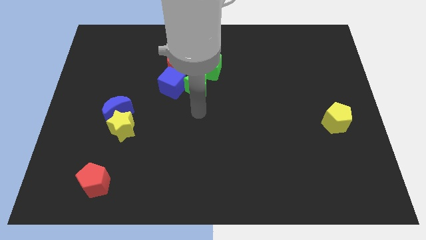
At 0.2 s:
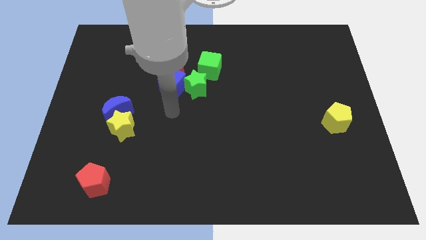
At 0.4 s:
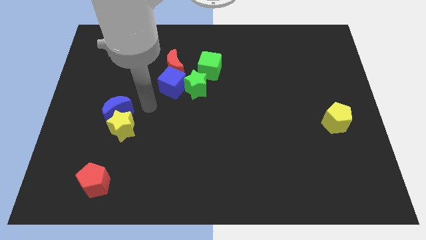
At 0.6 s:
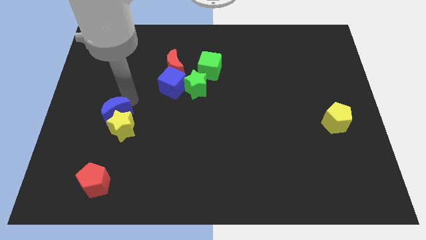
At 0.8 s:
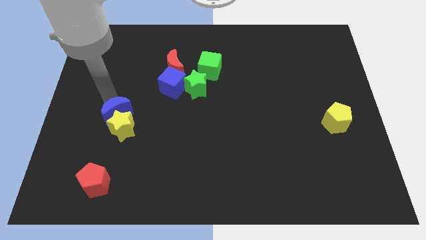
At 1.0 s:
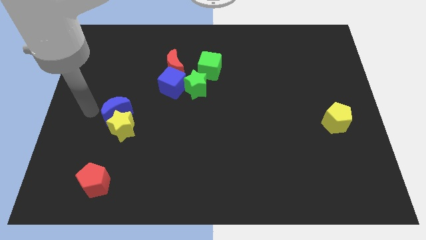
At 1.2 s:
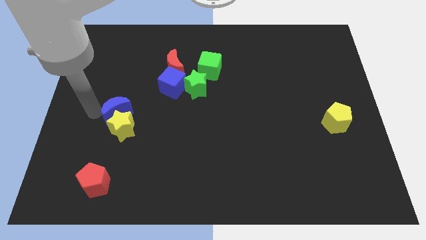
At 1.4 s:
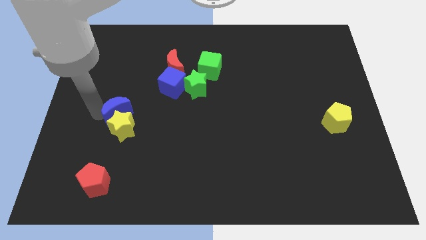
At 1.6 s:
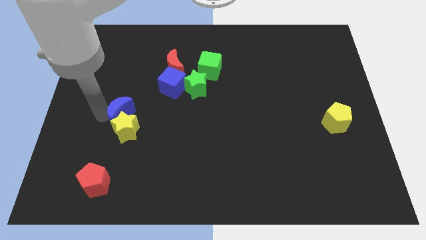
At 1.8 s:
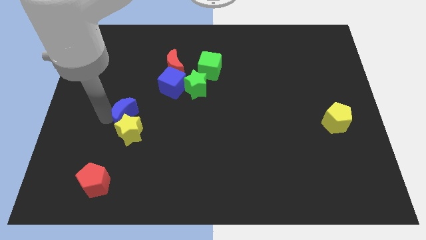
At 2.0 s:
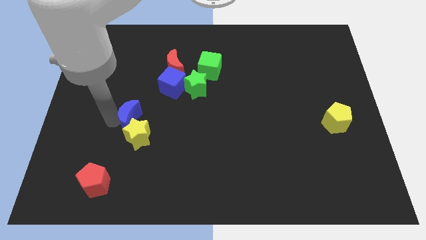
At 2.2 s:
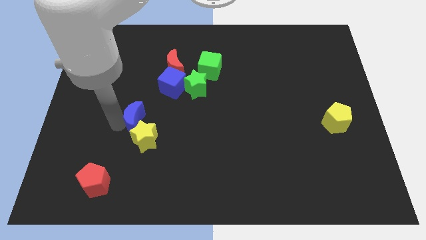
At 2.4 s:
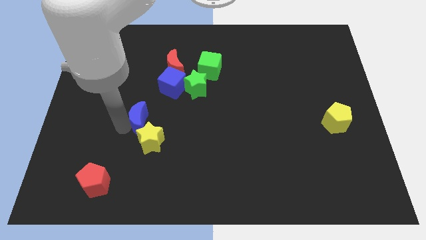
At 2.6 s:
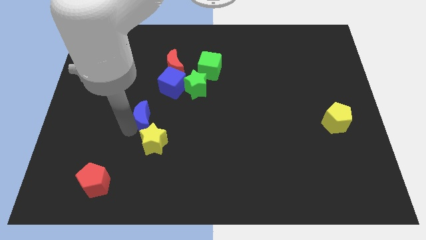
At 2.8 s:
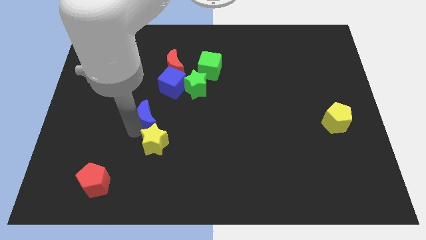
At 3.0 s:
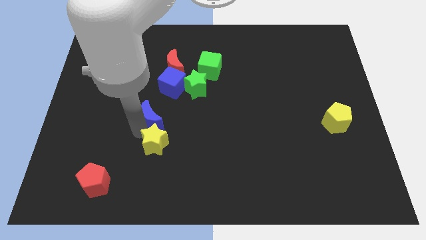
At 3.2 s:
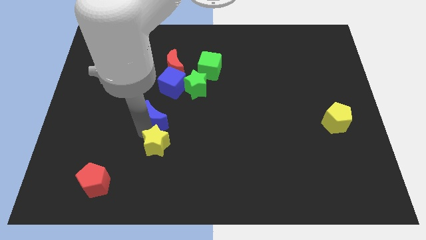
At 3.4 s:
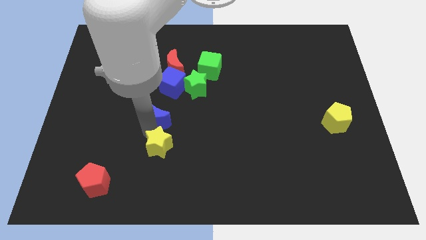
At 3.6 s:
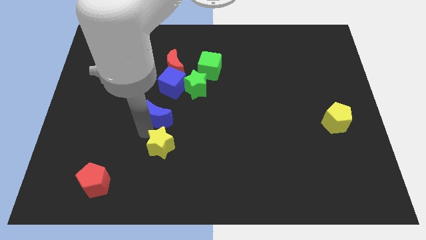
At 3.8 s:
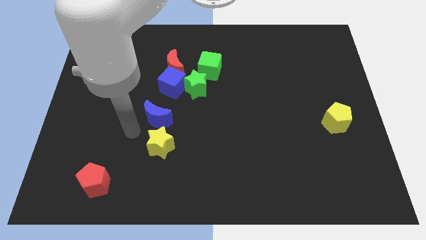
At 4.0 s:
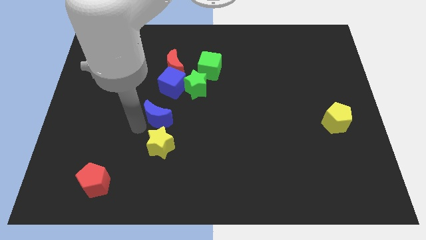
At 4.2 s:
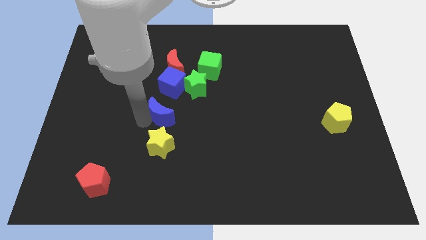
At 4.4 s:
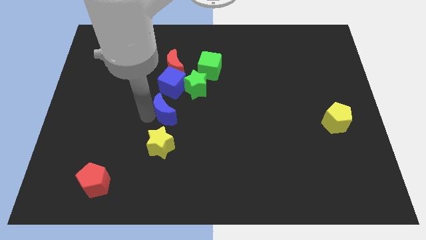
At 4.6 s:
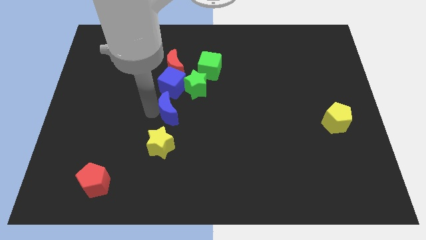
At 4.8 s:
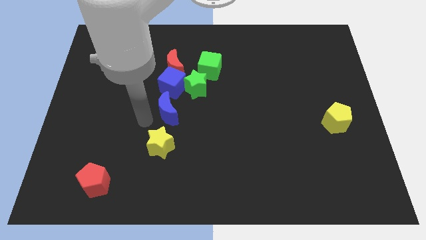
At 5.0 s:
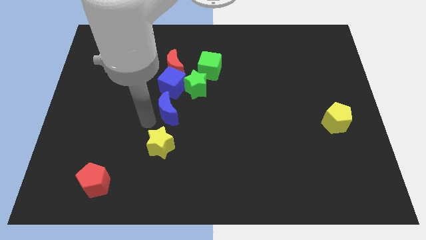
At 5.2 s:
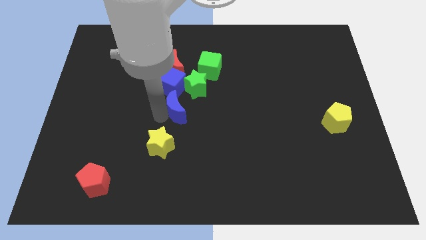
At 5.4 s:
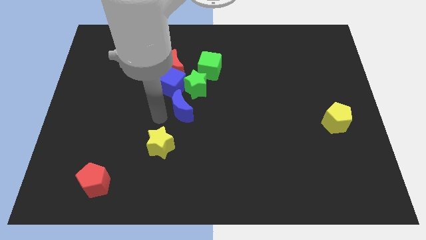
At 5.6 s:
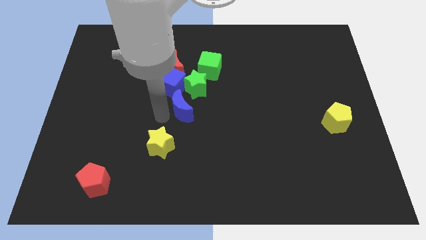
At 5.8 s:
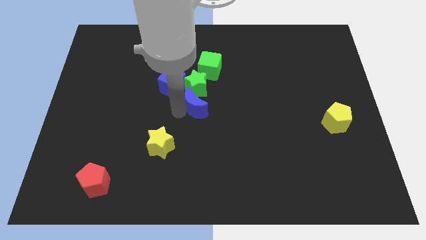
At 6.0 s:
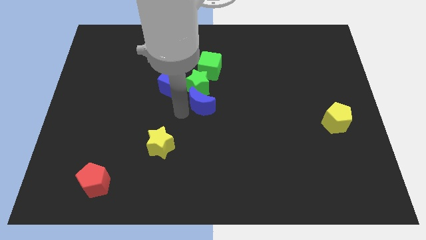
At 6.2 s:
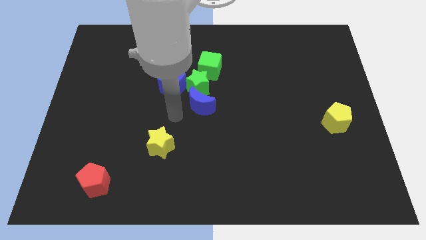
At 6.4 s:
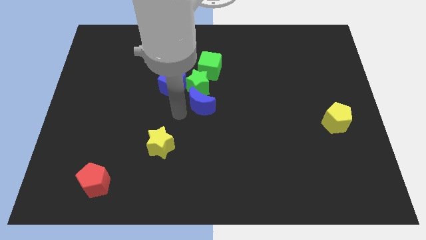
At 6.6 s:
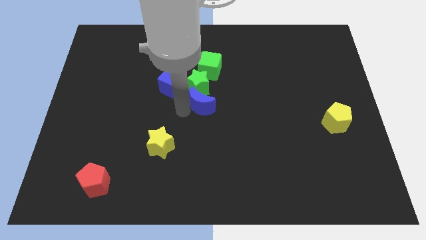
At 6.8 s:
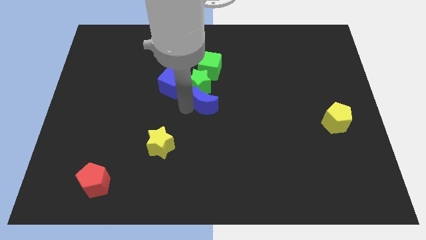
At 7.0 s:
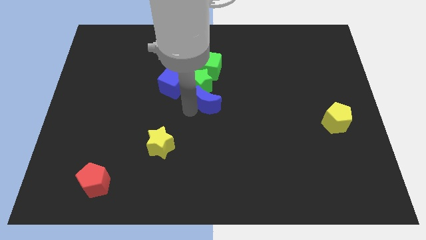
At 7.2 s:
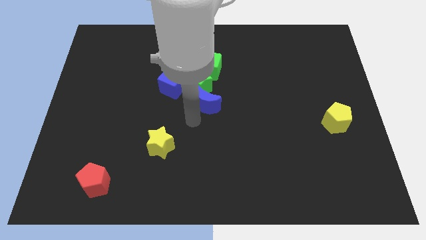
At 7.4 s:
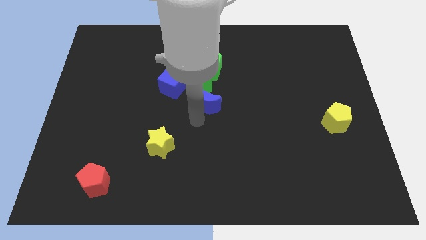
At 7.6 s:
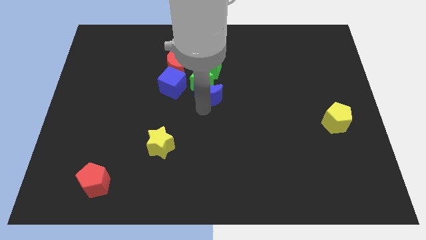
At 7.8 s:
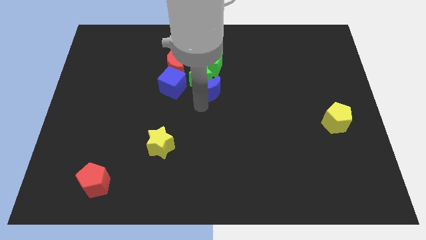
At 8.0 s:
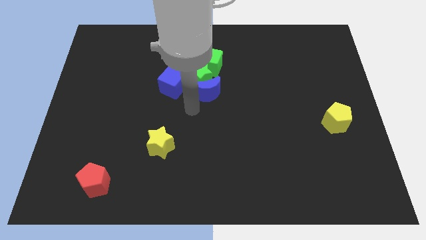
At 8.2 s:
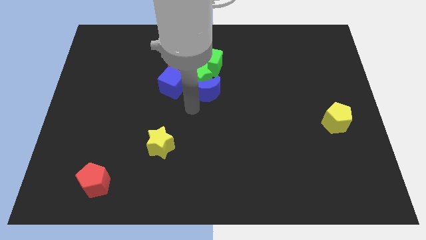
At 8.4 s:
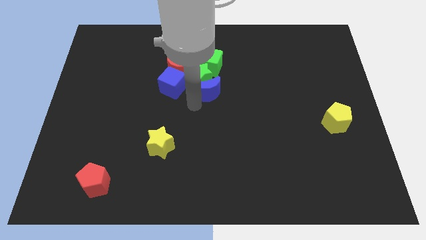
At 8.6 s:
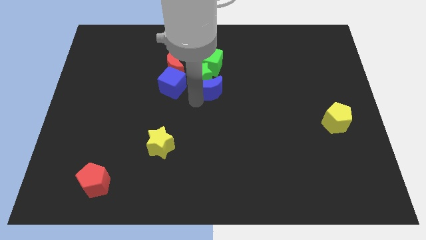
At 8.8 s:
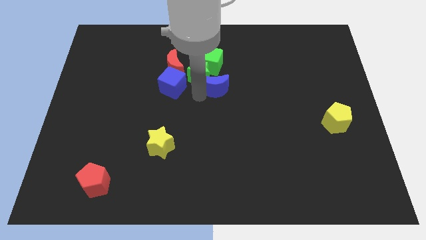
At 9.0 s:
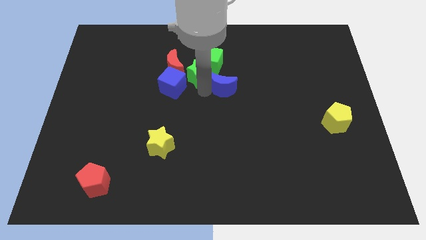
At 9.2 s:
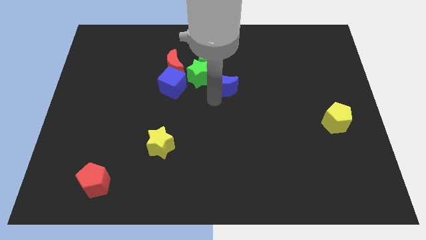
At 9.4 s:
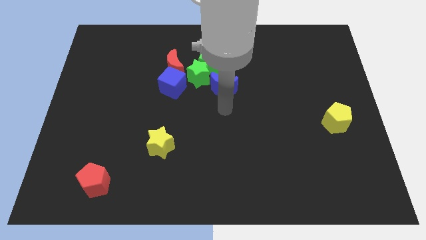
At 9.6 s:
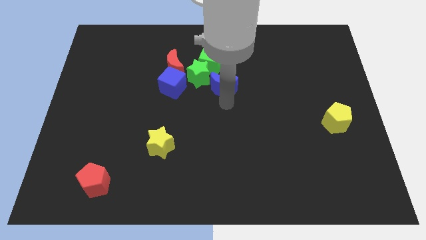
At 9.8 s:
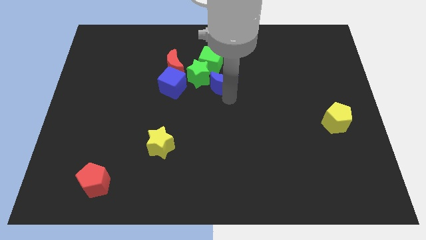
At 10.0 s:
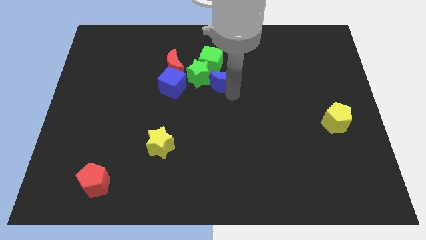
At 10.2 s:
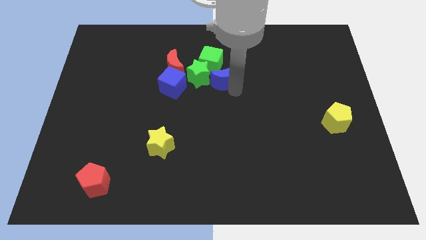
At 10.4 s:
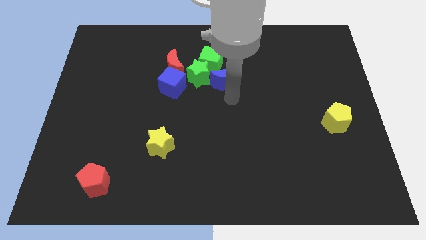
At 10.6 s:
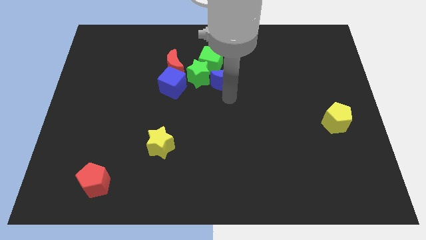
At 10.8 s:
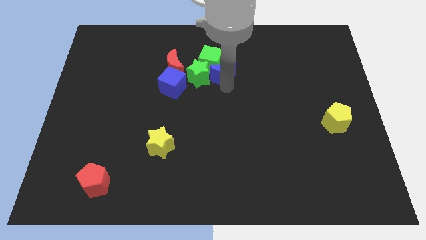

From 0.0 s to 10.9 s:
put the blue moon diagonally up and to the right of the green star
